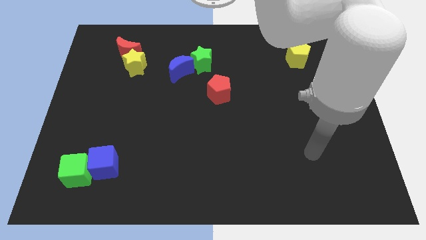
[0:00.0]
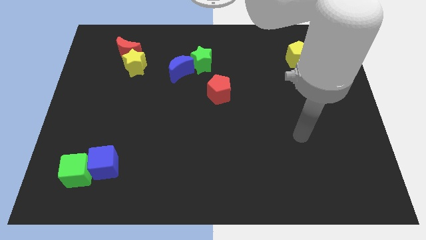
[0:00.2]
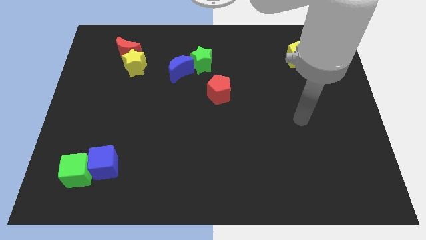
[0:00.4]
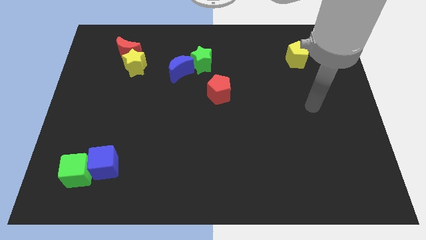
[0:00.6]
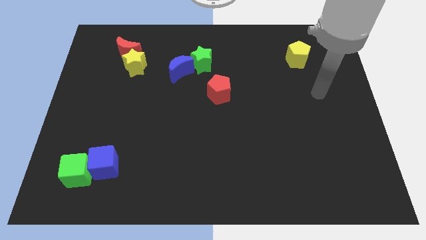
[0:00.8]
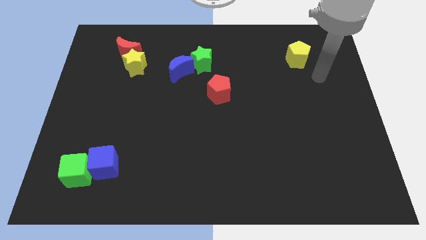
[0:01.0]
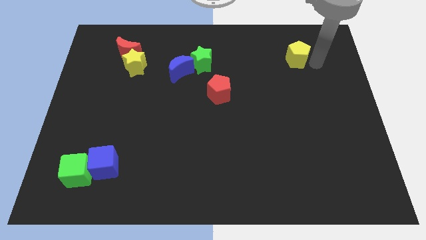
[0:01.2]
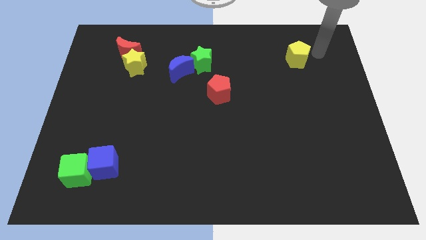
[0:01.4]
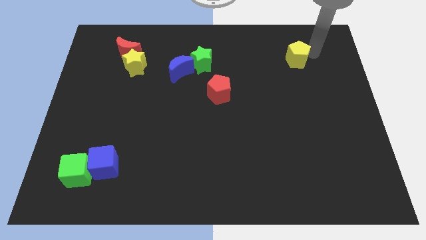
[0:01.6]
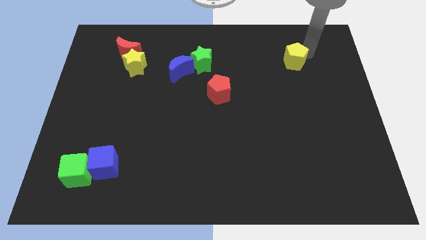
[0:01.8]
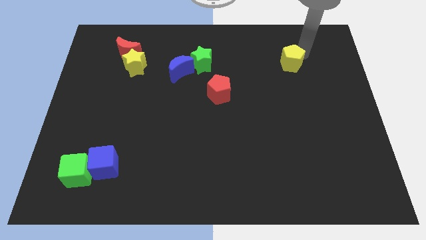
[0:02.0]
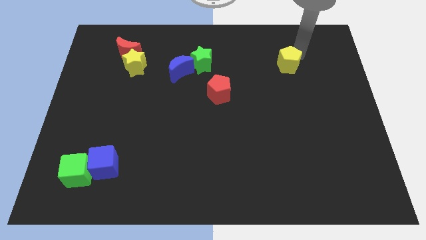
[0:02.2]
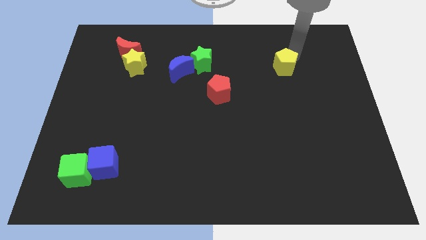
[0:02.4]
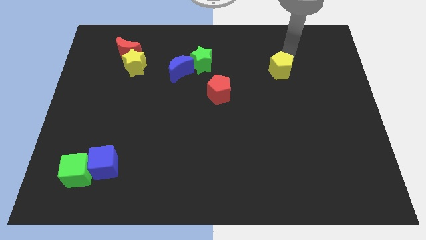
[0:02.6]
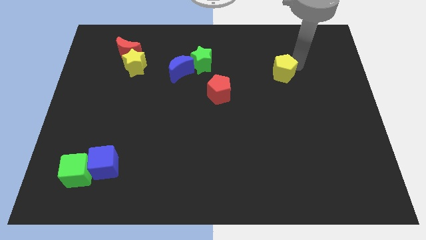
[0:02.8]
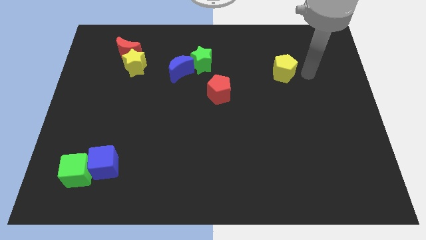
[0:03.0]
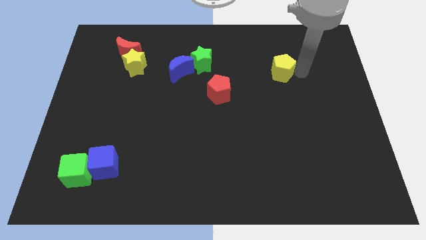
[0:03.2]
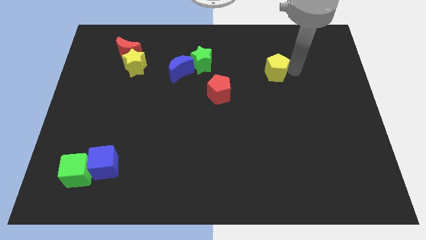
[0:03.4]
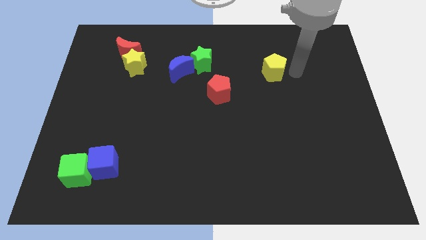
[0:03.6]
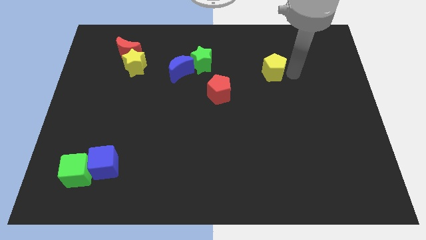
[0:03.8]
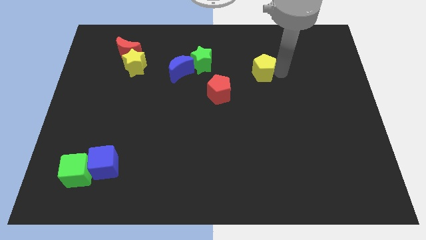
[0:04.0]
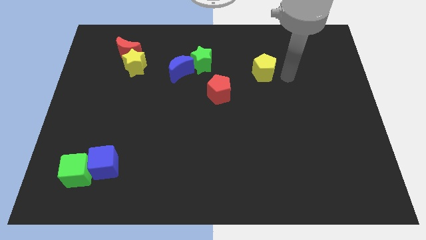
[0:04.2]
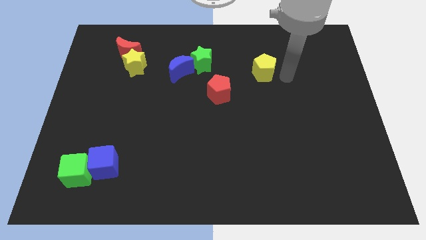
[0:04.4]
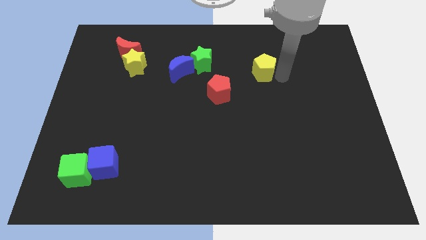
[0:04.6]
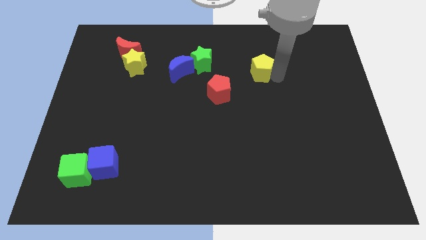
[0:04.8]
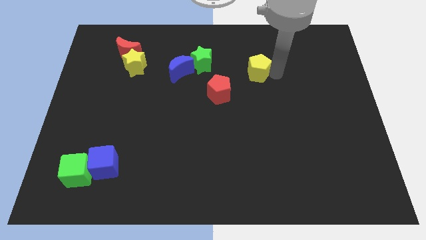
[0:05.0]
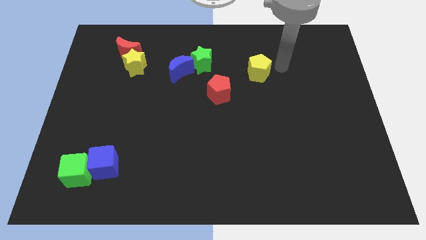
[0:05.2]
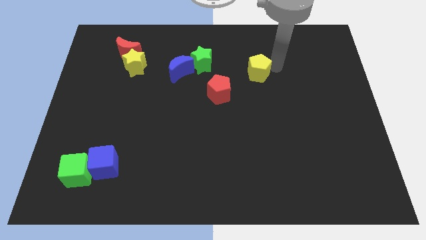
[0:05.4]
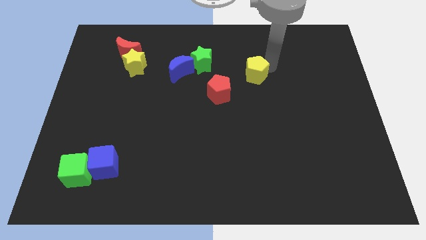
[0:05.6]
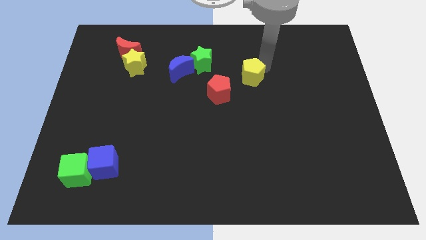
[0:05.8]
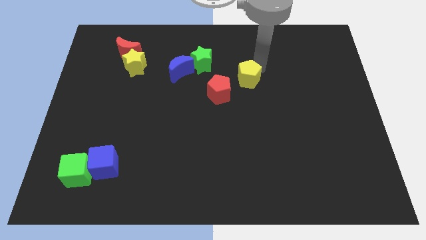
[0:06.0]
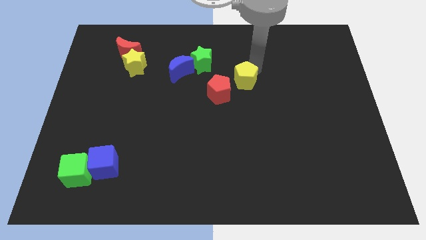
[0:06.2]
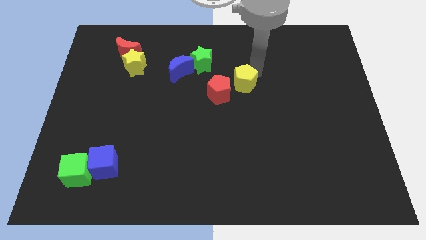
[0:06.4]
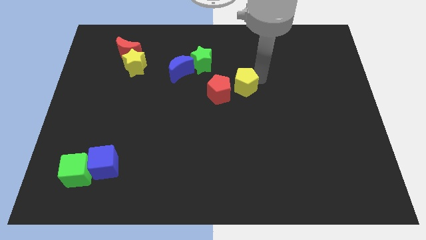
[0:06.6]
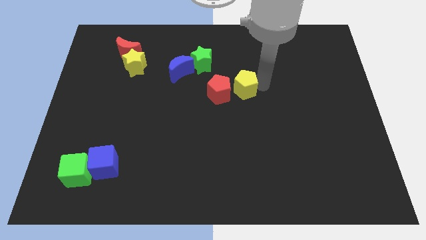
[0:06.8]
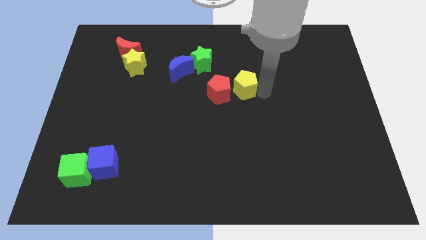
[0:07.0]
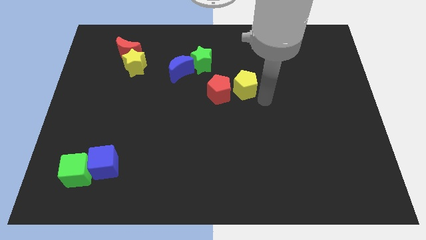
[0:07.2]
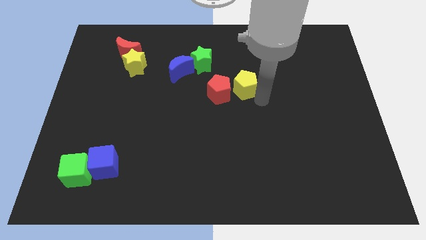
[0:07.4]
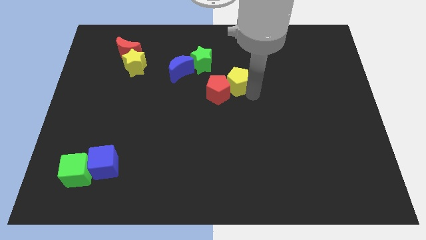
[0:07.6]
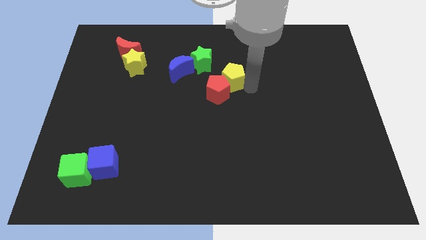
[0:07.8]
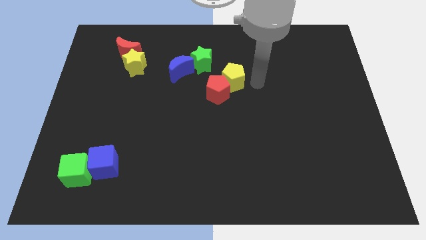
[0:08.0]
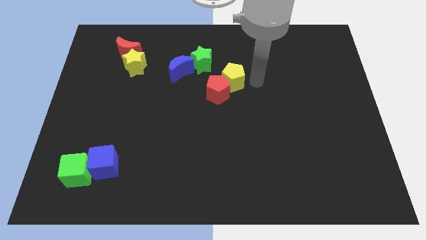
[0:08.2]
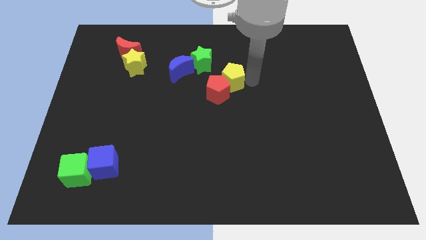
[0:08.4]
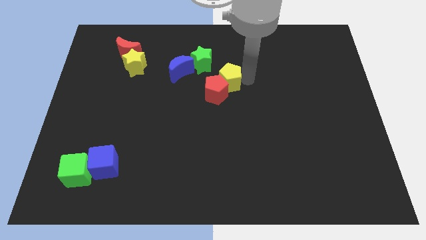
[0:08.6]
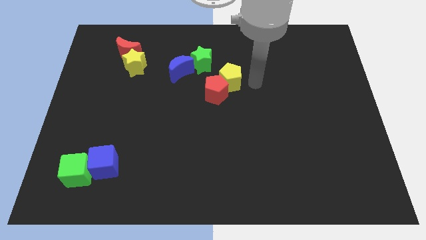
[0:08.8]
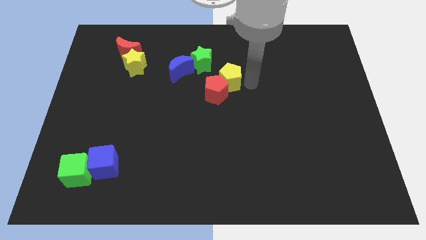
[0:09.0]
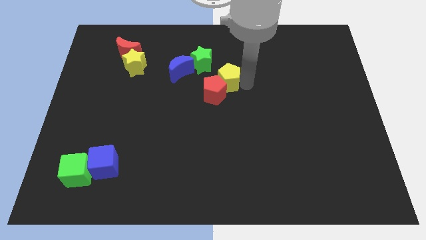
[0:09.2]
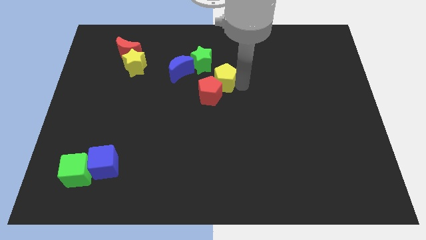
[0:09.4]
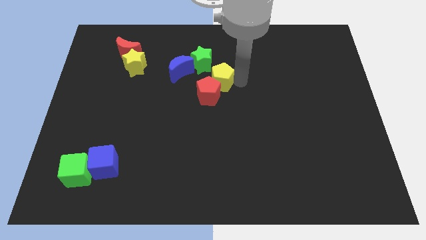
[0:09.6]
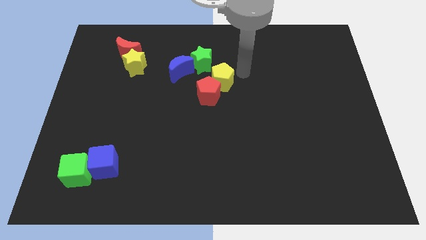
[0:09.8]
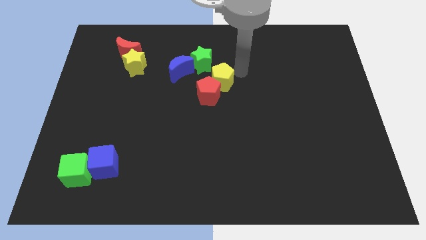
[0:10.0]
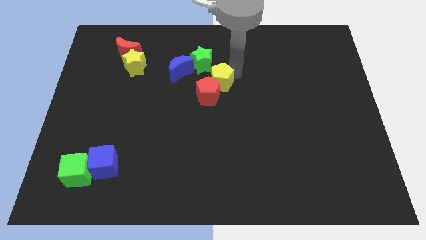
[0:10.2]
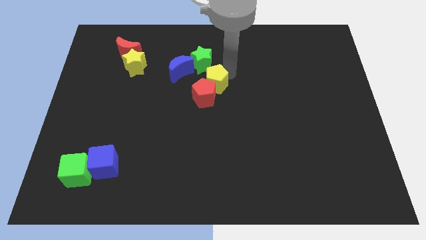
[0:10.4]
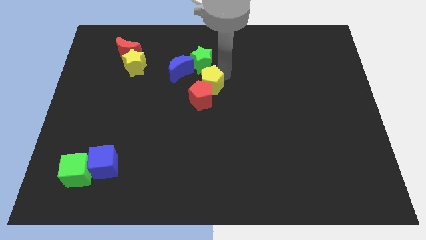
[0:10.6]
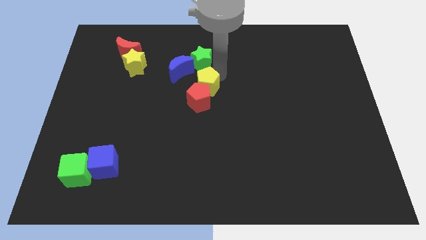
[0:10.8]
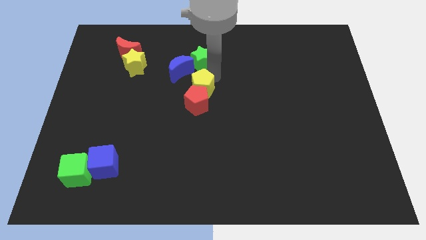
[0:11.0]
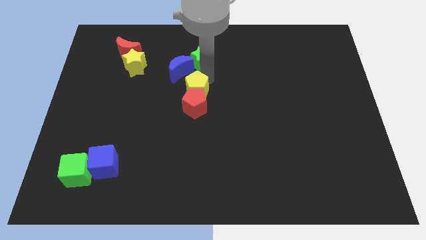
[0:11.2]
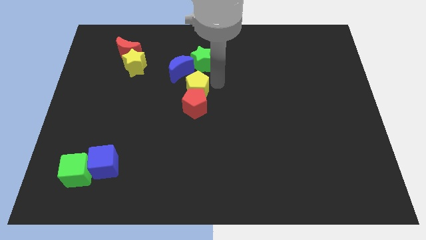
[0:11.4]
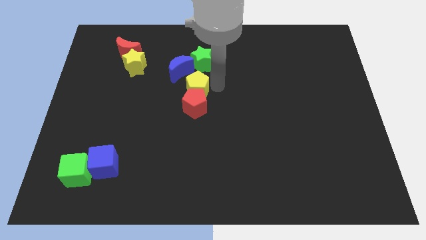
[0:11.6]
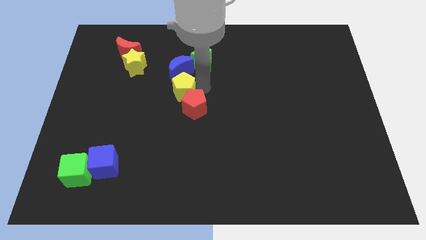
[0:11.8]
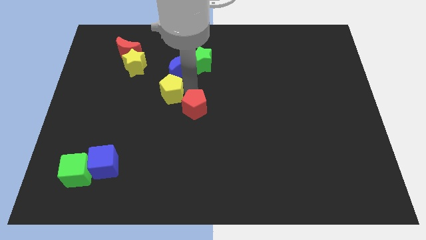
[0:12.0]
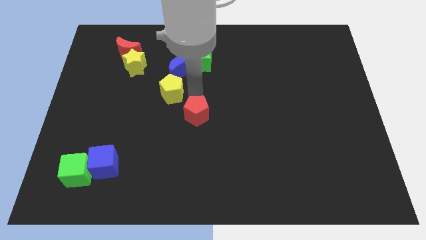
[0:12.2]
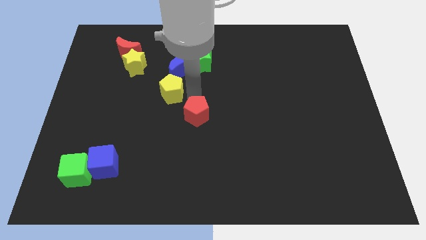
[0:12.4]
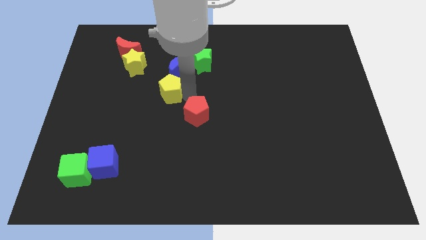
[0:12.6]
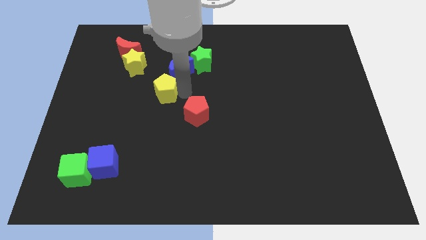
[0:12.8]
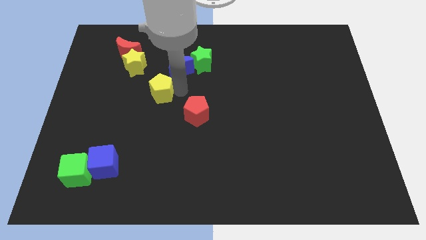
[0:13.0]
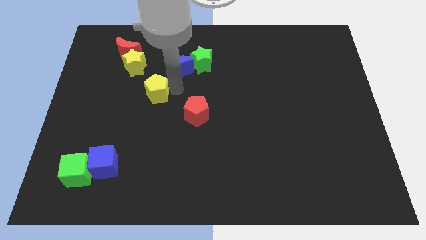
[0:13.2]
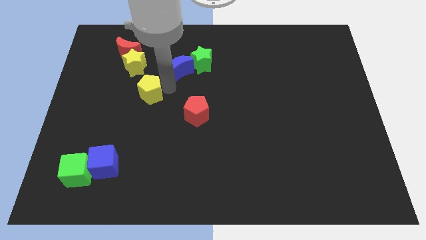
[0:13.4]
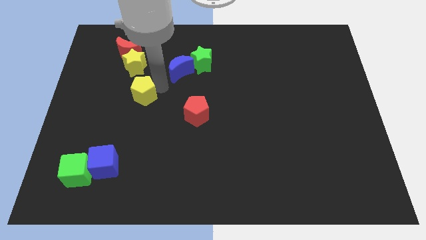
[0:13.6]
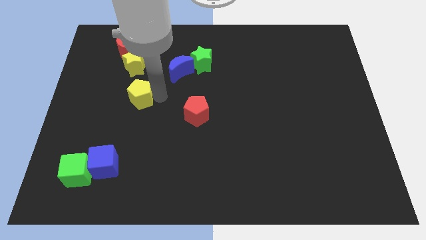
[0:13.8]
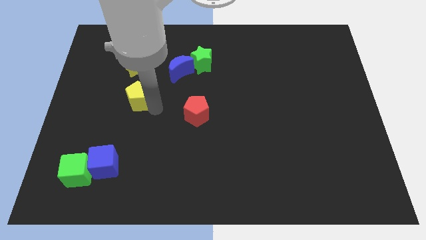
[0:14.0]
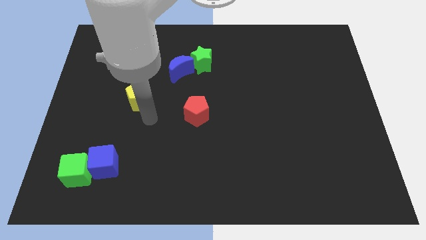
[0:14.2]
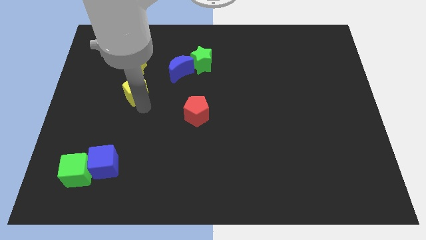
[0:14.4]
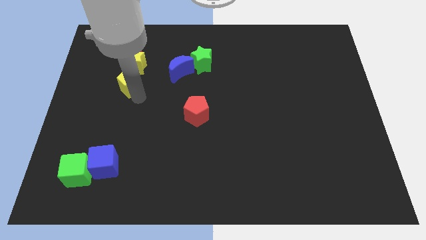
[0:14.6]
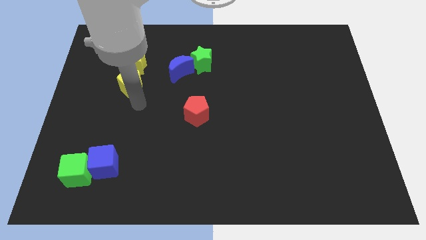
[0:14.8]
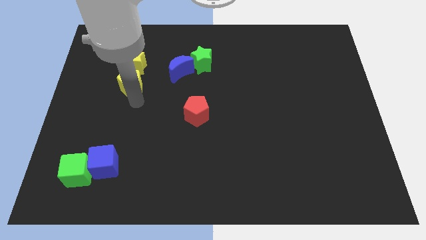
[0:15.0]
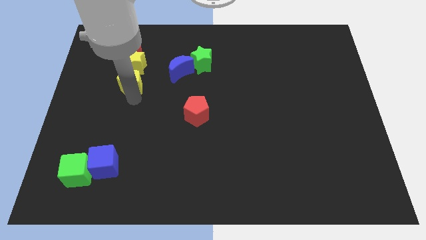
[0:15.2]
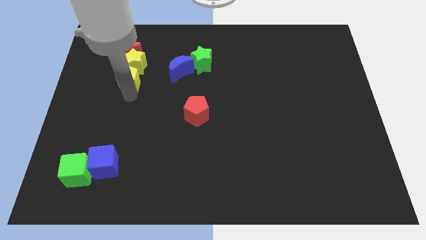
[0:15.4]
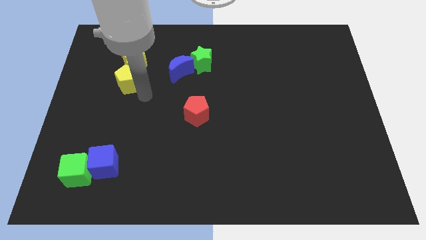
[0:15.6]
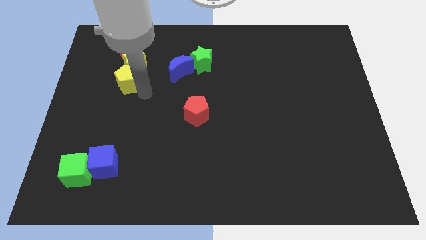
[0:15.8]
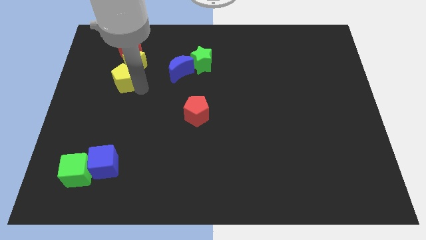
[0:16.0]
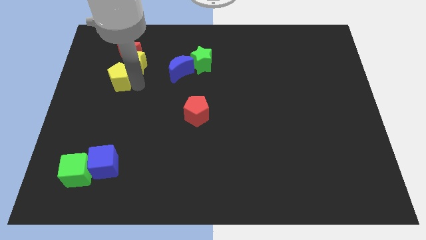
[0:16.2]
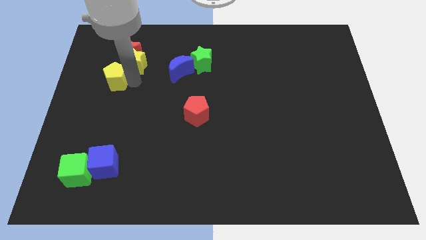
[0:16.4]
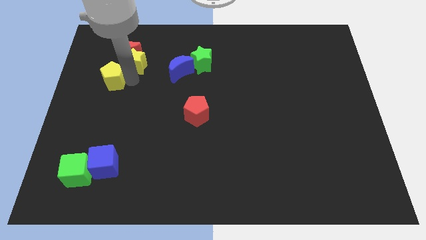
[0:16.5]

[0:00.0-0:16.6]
move the yellow pentagon to the bottom left of the red moon
